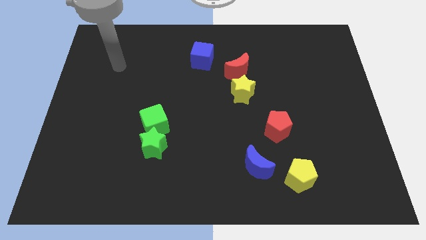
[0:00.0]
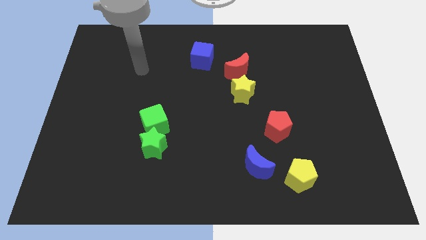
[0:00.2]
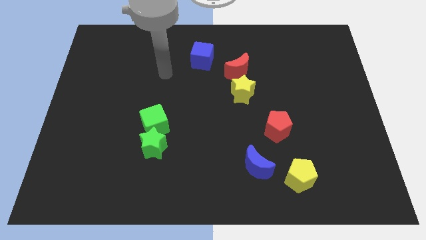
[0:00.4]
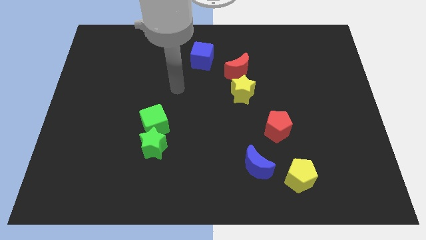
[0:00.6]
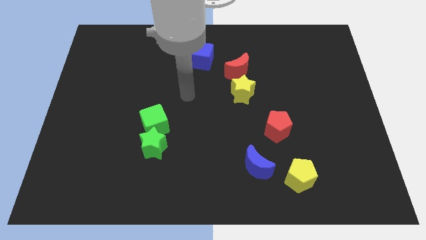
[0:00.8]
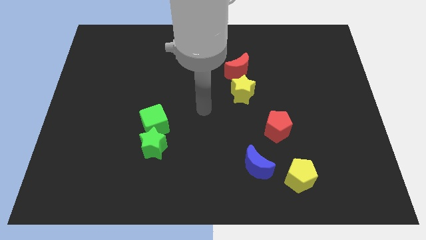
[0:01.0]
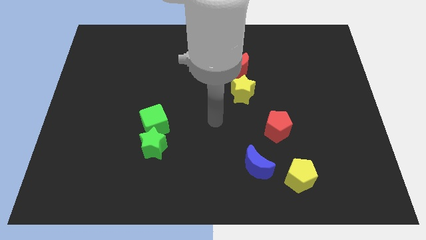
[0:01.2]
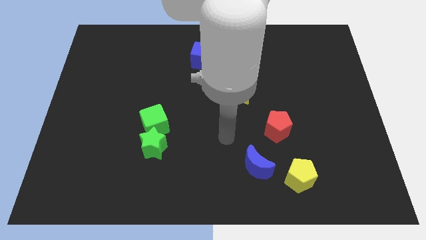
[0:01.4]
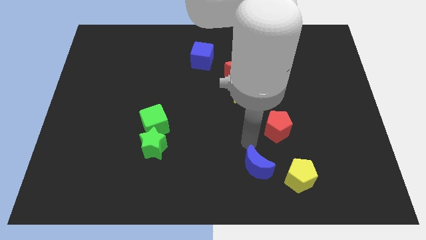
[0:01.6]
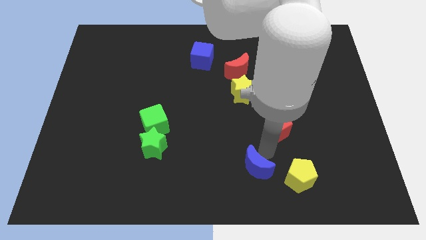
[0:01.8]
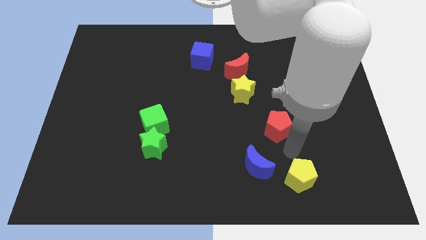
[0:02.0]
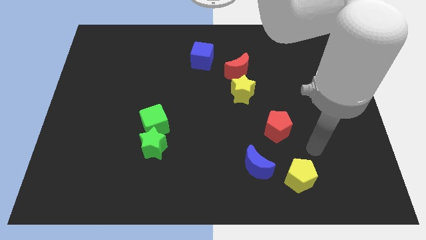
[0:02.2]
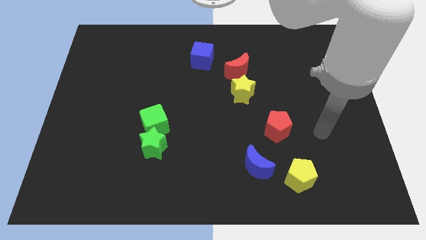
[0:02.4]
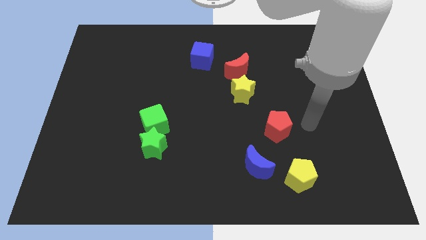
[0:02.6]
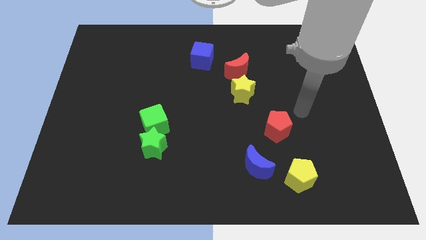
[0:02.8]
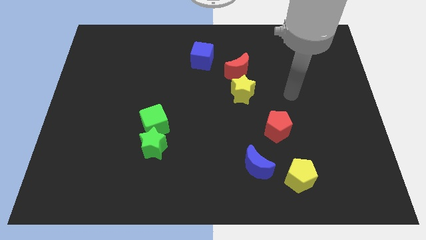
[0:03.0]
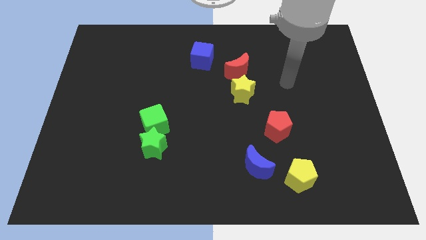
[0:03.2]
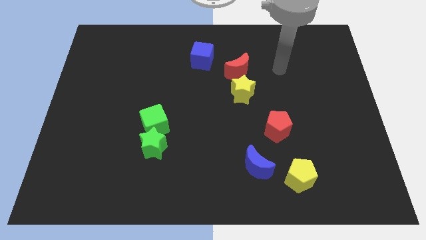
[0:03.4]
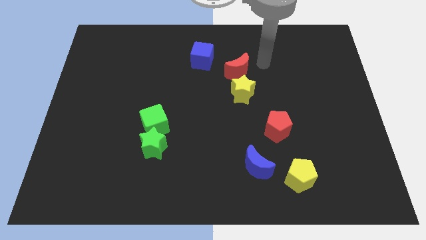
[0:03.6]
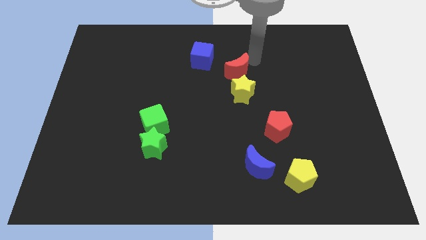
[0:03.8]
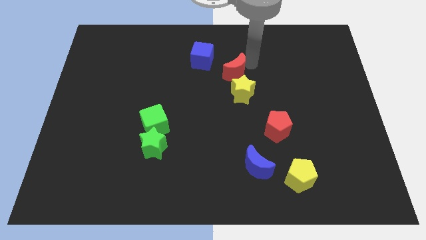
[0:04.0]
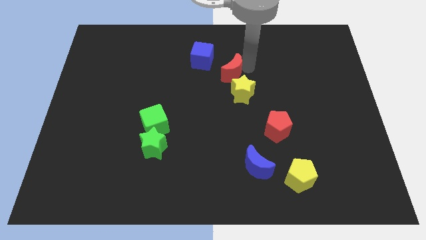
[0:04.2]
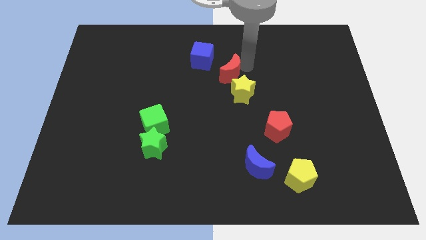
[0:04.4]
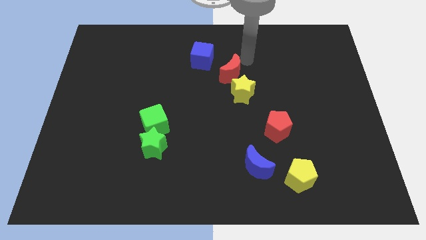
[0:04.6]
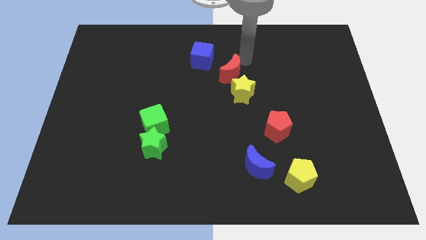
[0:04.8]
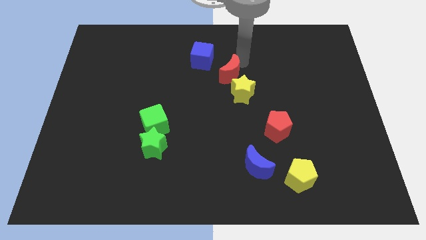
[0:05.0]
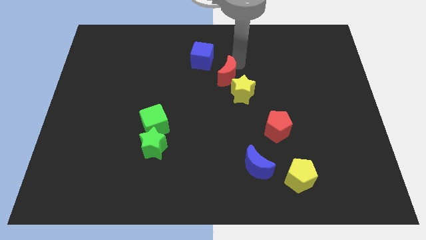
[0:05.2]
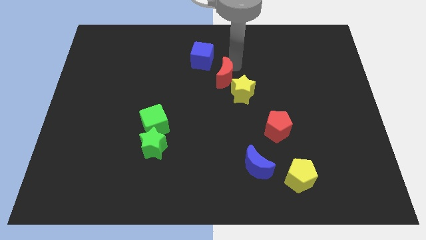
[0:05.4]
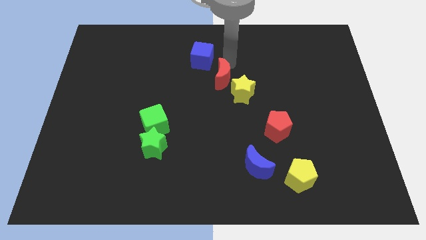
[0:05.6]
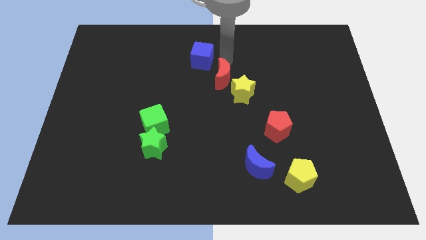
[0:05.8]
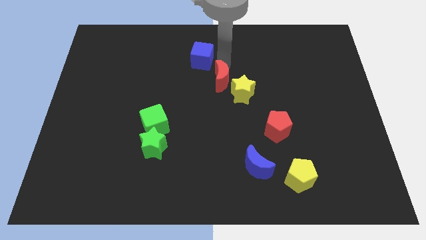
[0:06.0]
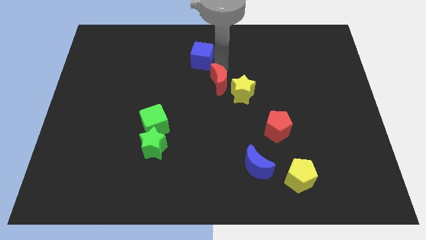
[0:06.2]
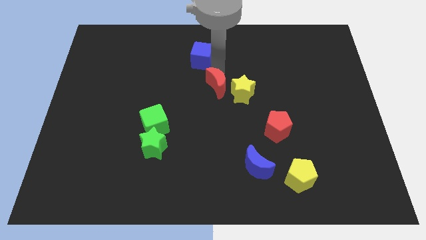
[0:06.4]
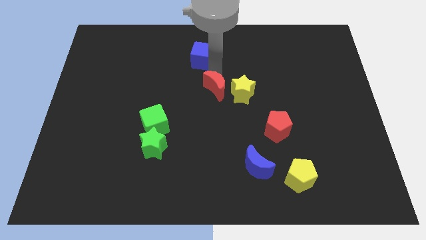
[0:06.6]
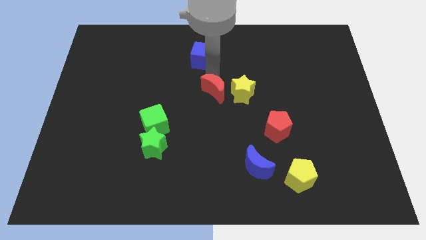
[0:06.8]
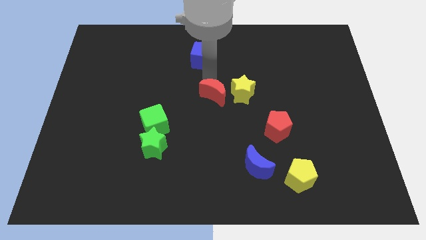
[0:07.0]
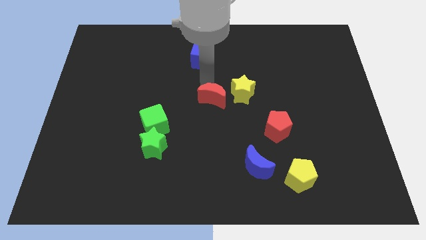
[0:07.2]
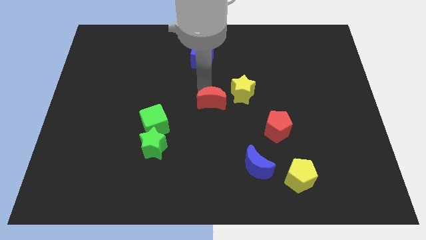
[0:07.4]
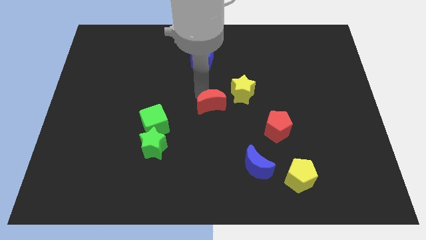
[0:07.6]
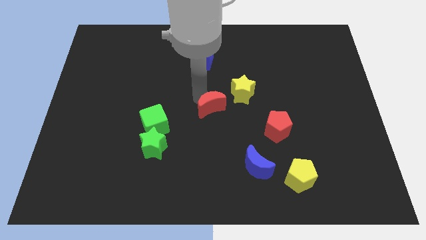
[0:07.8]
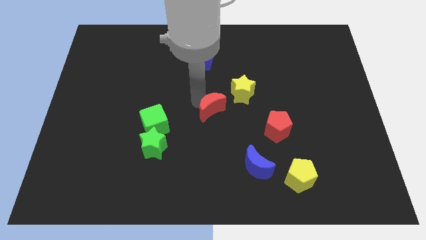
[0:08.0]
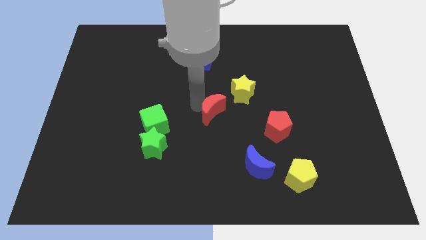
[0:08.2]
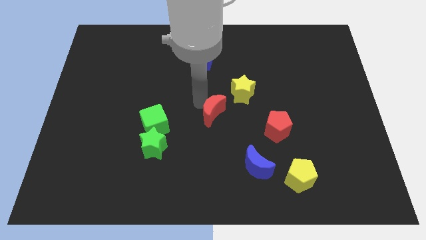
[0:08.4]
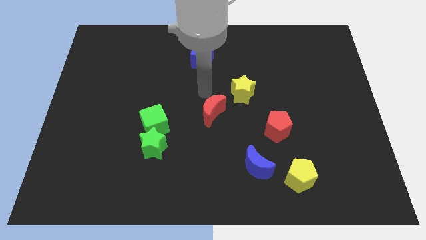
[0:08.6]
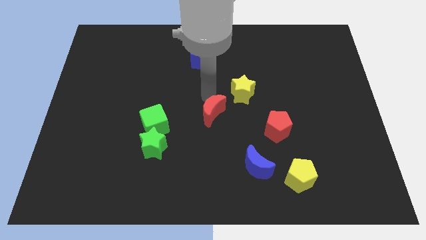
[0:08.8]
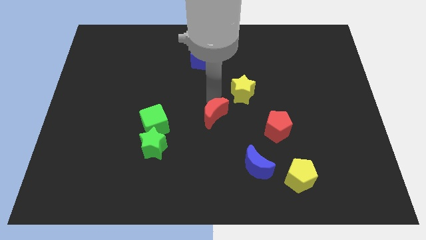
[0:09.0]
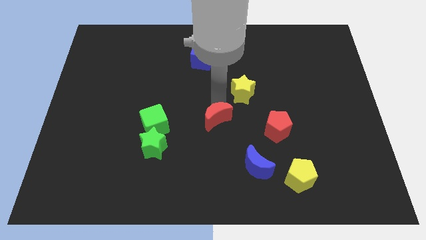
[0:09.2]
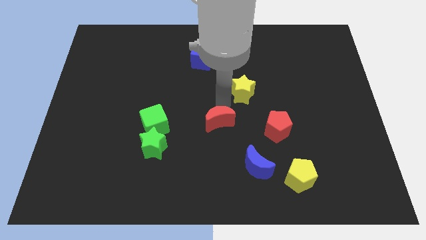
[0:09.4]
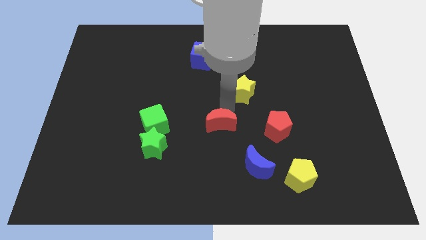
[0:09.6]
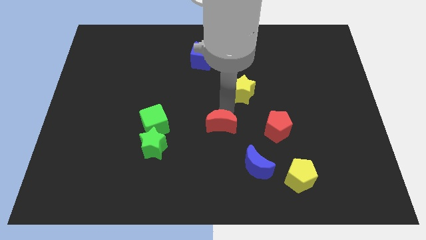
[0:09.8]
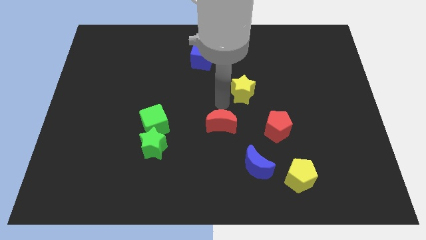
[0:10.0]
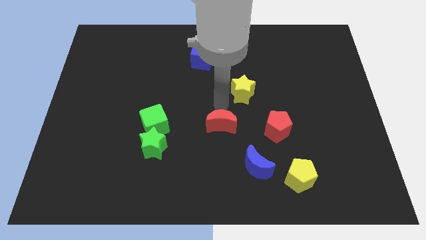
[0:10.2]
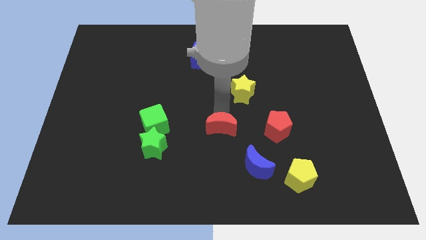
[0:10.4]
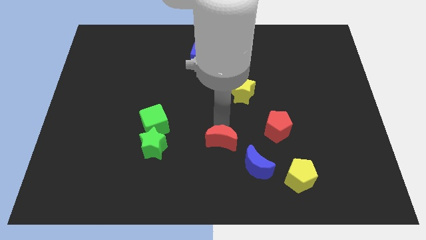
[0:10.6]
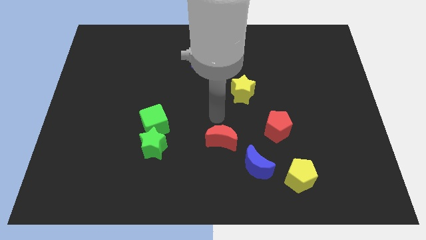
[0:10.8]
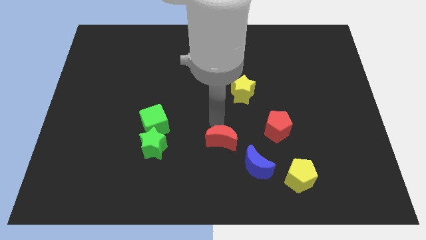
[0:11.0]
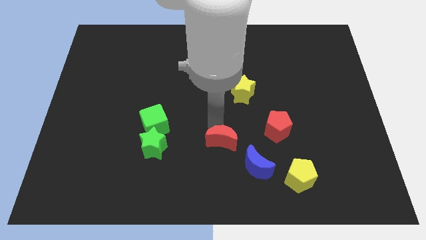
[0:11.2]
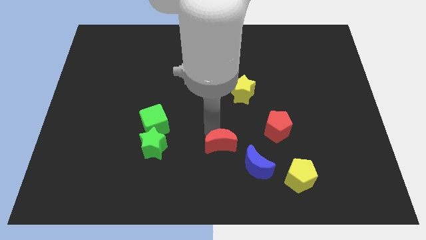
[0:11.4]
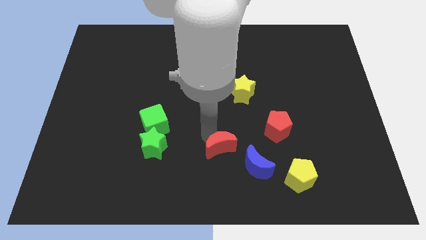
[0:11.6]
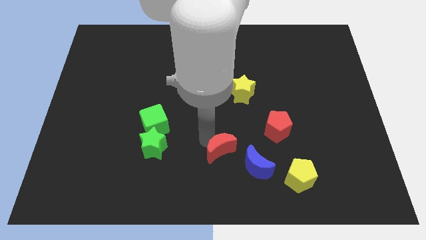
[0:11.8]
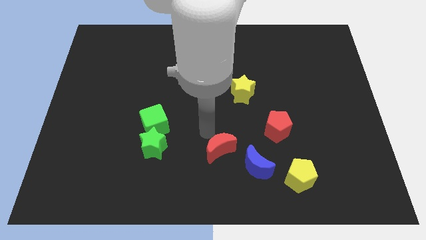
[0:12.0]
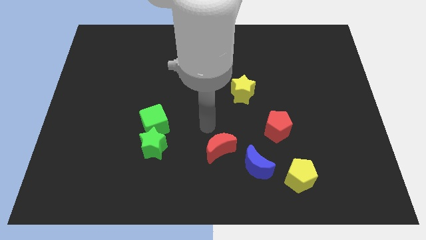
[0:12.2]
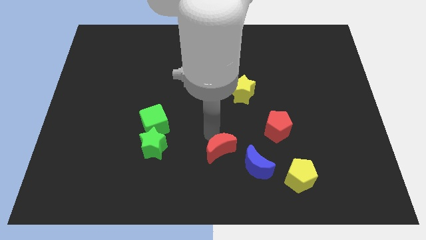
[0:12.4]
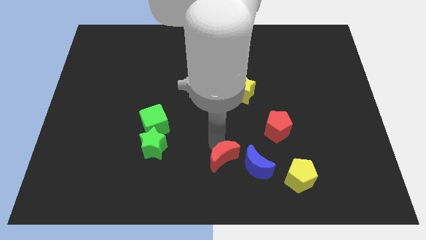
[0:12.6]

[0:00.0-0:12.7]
slide the red moon to the bottom

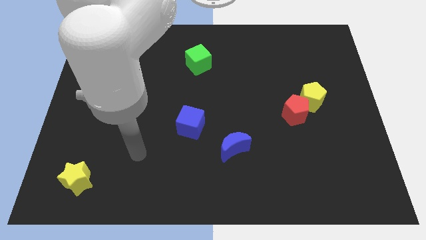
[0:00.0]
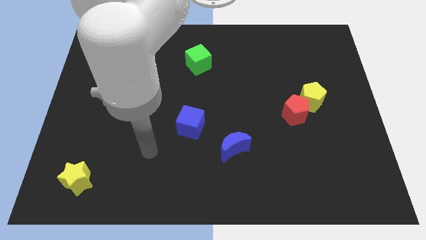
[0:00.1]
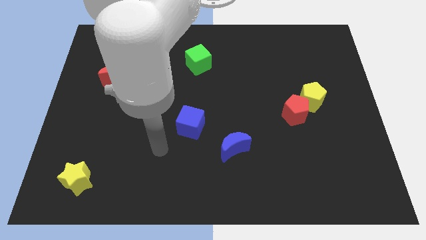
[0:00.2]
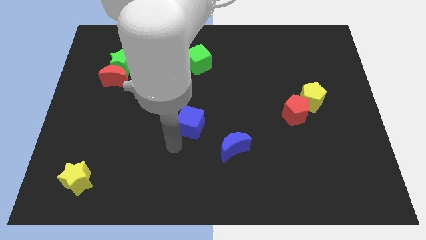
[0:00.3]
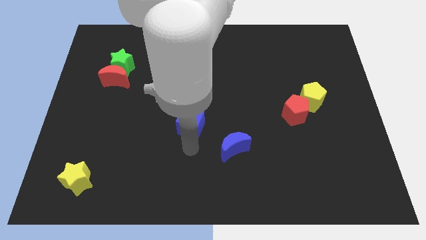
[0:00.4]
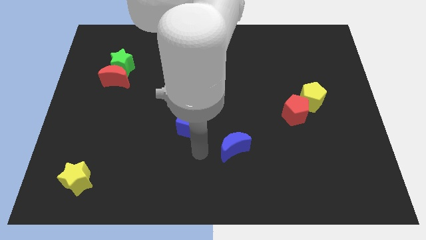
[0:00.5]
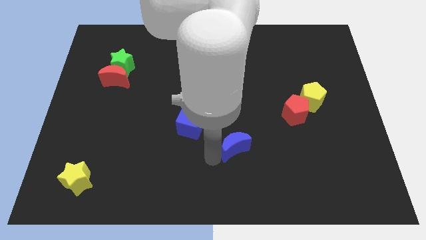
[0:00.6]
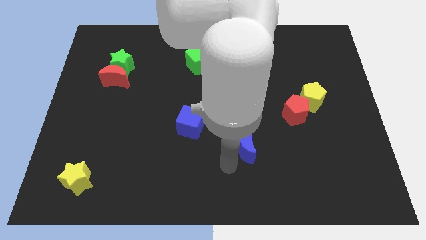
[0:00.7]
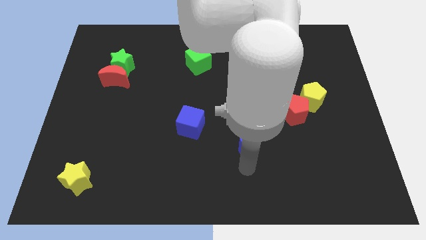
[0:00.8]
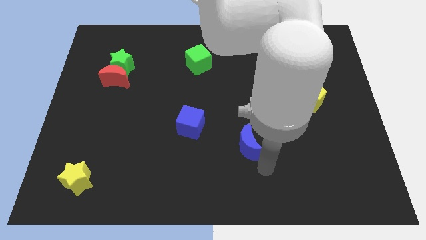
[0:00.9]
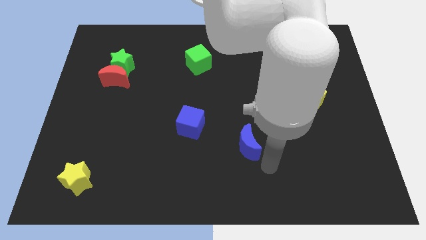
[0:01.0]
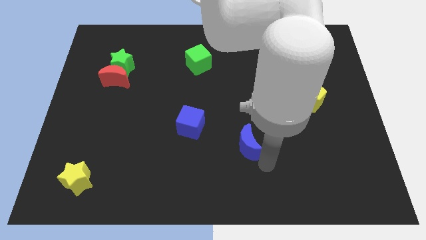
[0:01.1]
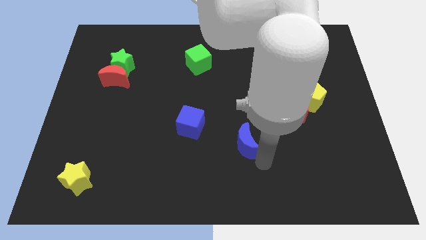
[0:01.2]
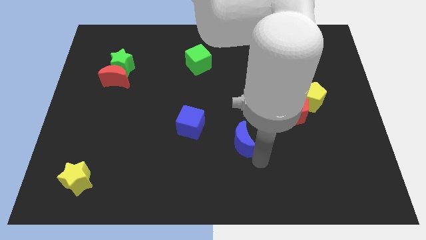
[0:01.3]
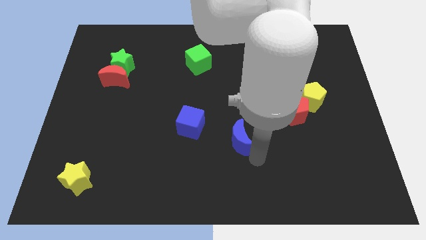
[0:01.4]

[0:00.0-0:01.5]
slide the blue moon to the center of the board
